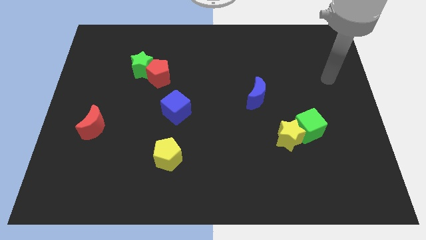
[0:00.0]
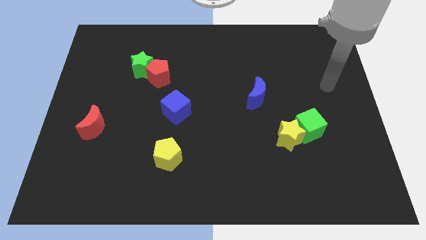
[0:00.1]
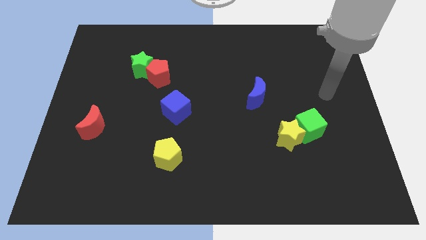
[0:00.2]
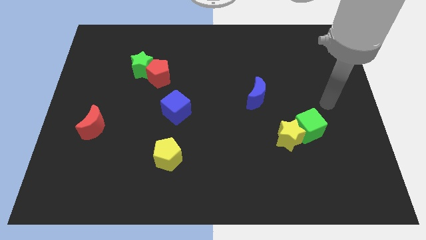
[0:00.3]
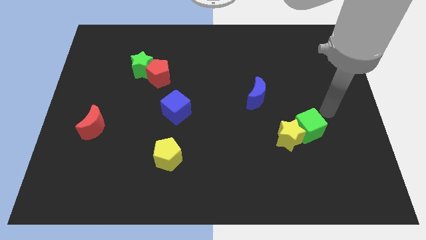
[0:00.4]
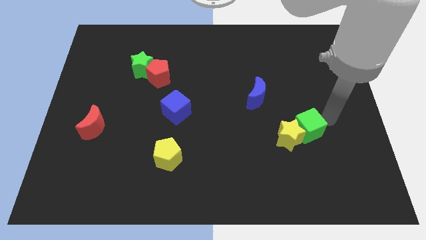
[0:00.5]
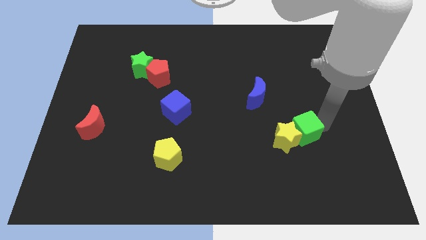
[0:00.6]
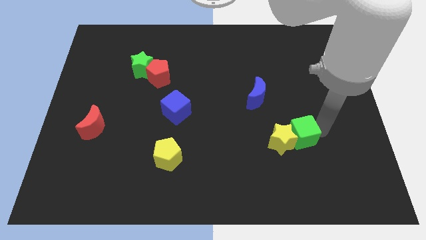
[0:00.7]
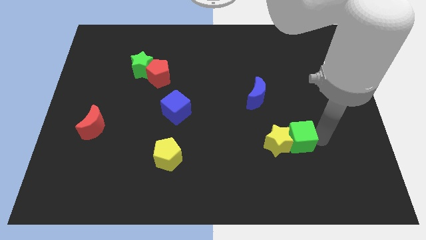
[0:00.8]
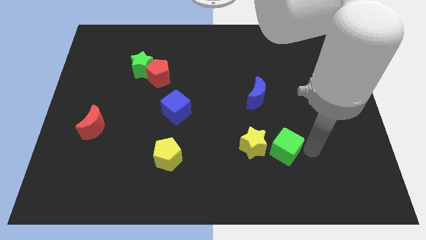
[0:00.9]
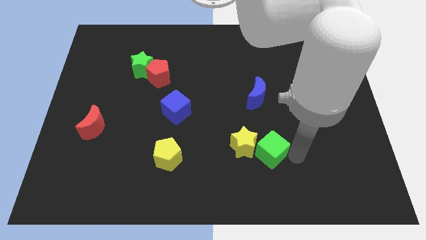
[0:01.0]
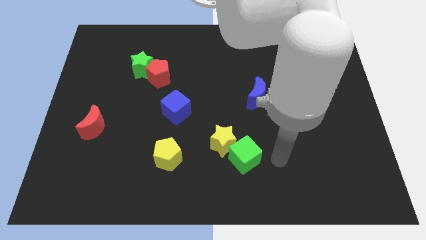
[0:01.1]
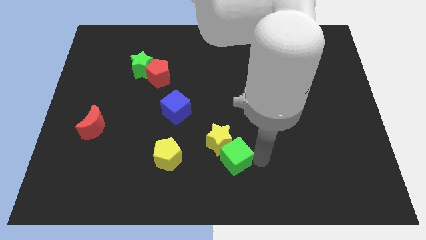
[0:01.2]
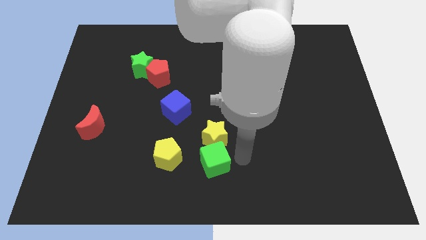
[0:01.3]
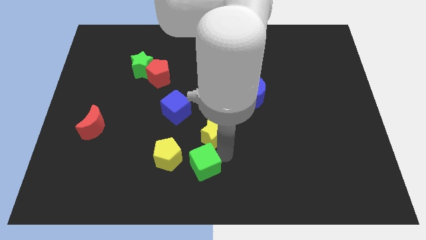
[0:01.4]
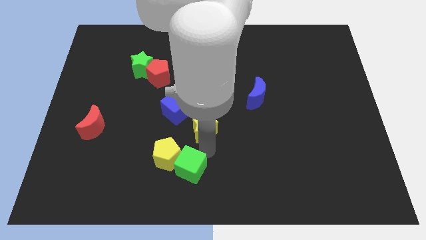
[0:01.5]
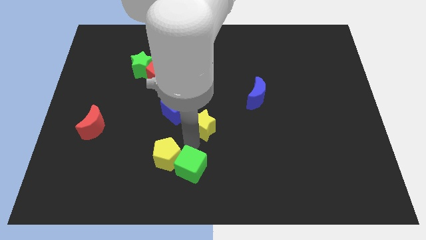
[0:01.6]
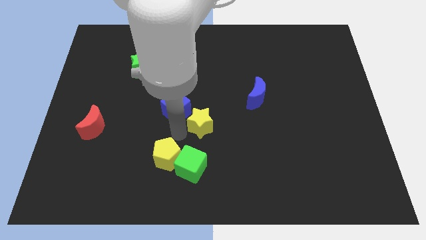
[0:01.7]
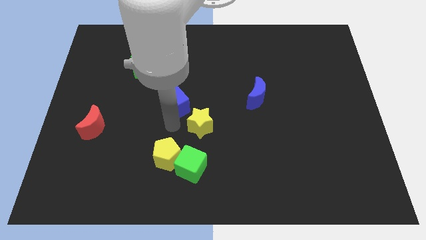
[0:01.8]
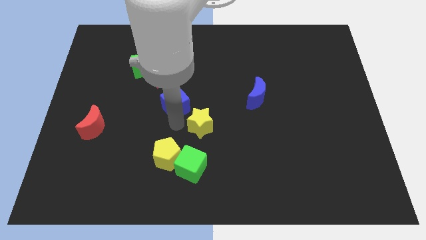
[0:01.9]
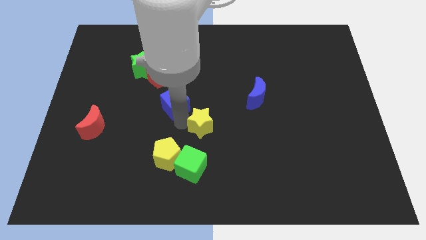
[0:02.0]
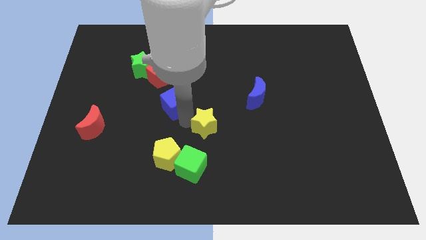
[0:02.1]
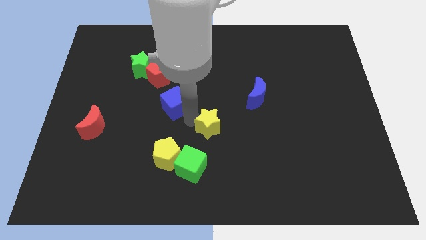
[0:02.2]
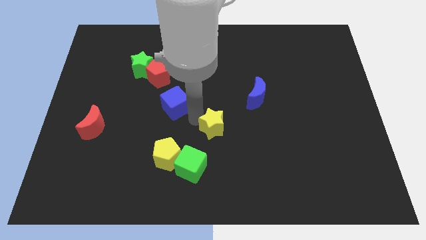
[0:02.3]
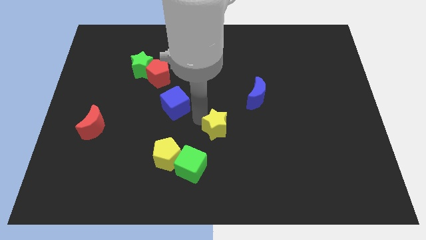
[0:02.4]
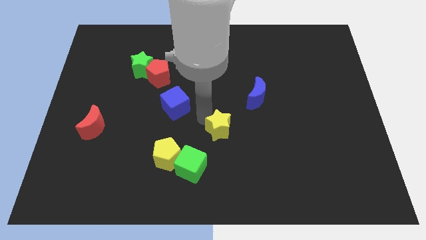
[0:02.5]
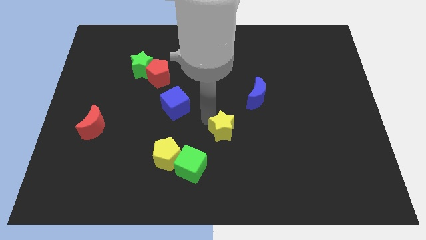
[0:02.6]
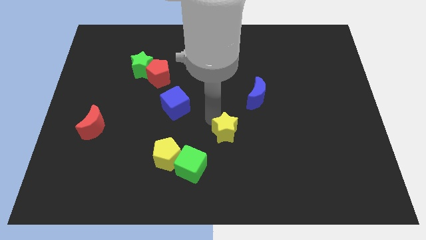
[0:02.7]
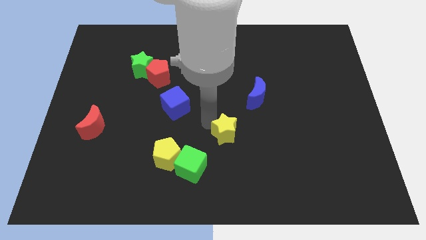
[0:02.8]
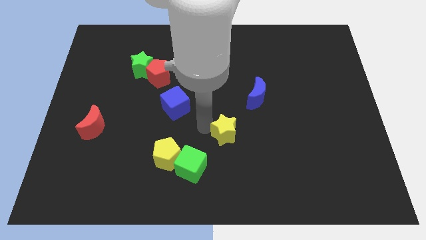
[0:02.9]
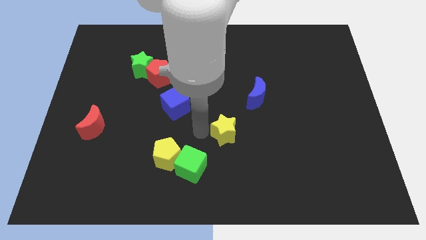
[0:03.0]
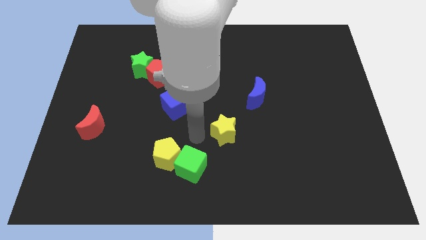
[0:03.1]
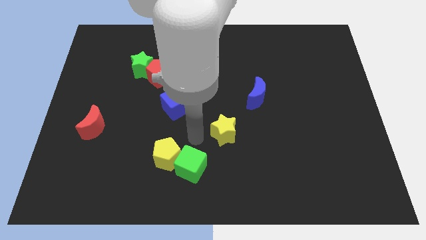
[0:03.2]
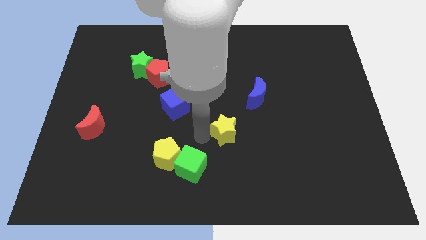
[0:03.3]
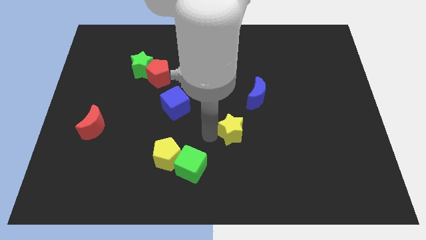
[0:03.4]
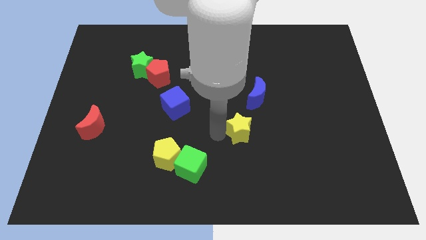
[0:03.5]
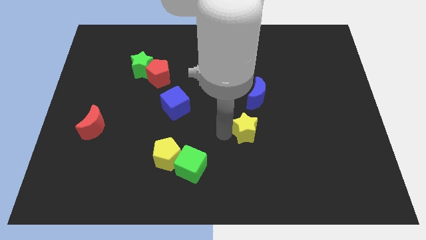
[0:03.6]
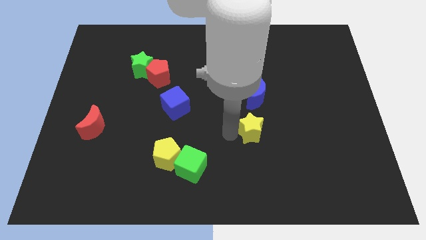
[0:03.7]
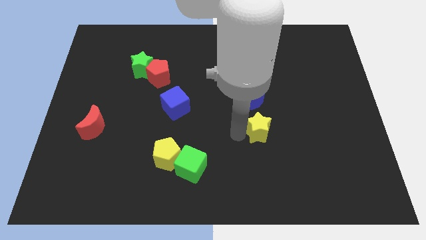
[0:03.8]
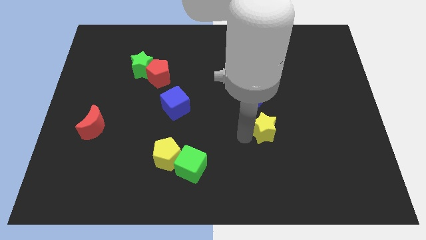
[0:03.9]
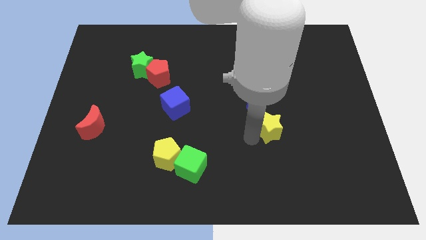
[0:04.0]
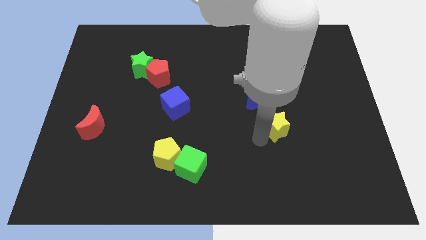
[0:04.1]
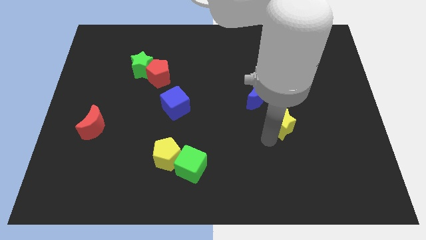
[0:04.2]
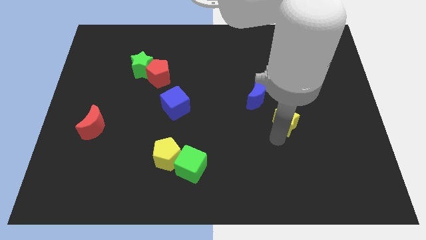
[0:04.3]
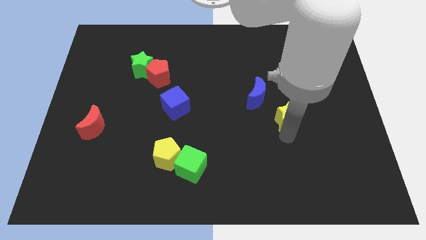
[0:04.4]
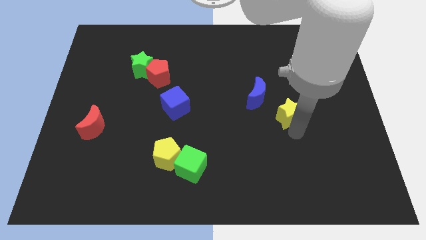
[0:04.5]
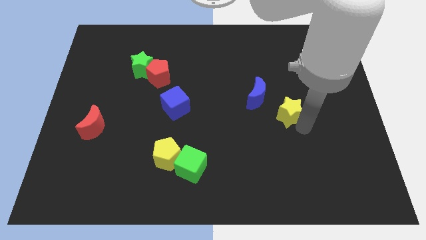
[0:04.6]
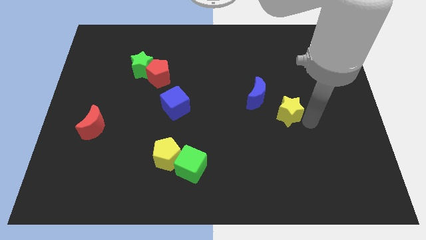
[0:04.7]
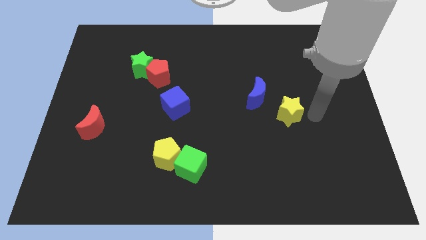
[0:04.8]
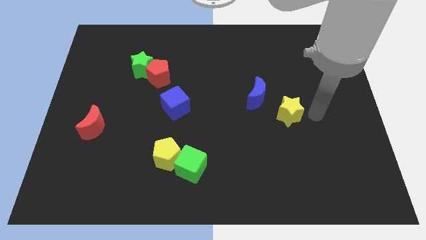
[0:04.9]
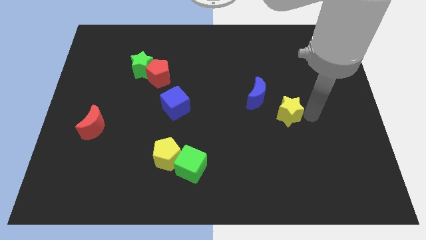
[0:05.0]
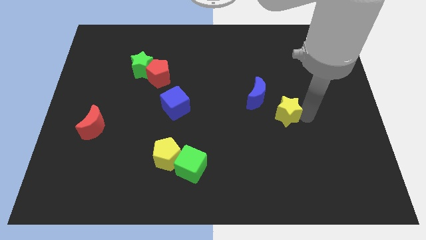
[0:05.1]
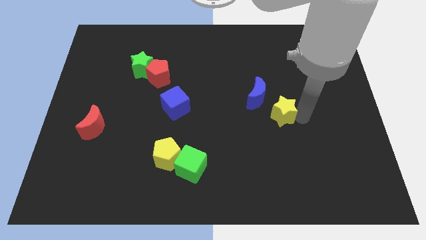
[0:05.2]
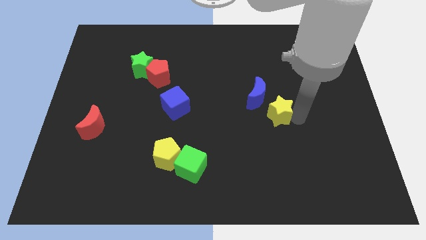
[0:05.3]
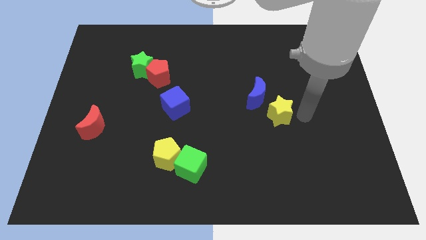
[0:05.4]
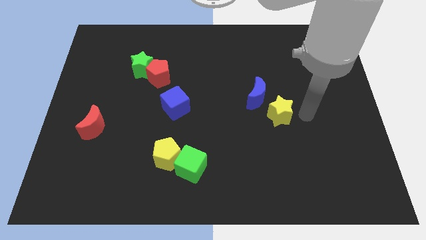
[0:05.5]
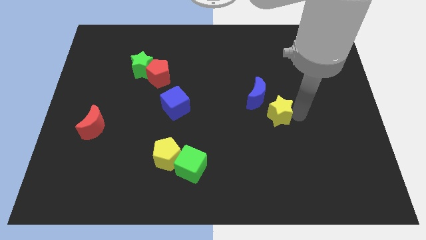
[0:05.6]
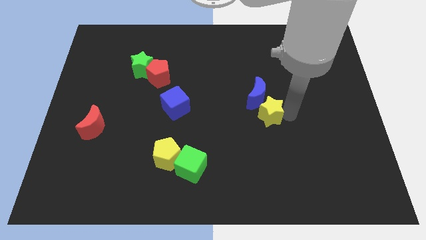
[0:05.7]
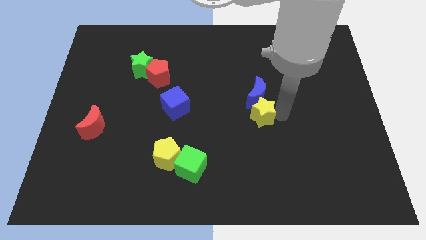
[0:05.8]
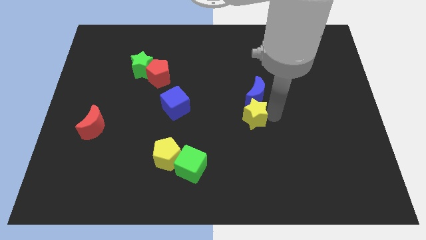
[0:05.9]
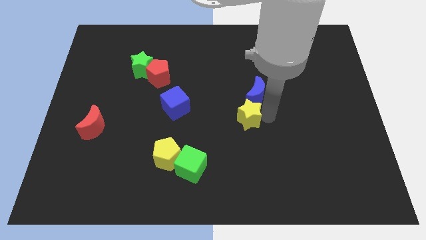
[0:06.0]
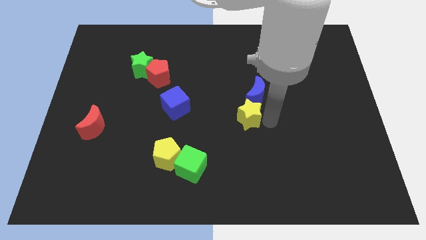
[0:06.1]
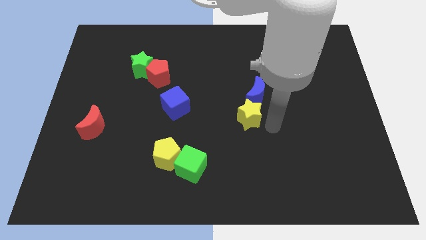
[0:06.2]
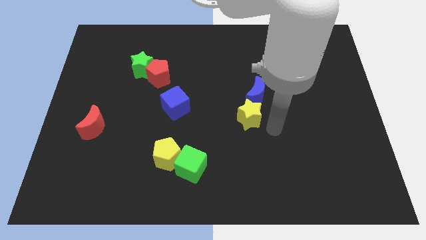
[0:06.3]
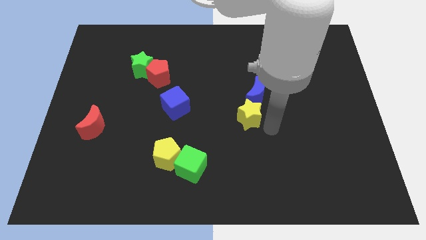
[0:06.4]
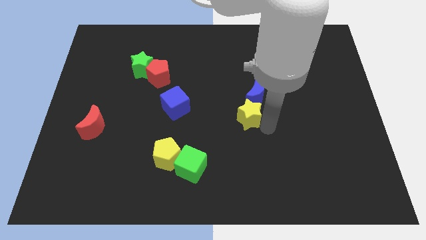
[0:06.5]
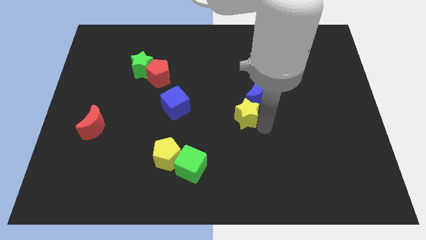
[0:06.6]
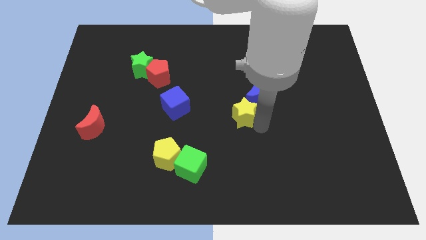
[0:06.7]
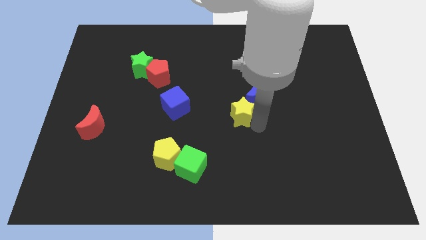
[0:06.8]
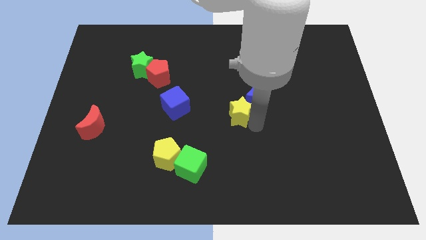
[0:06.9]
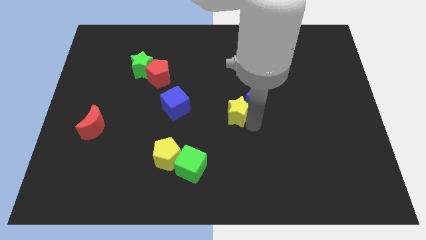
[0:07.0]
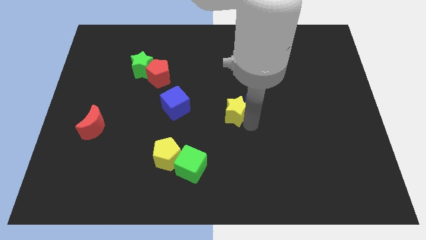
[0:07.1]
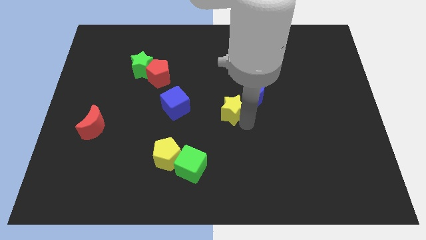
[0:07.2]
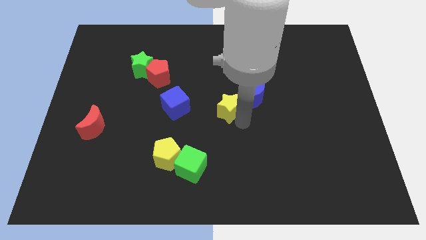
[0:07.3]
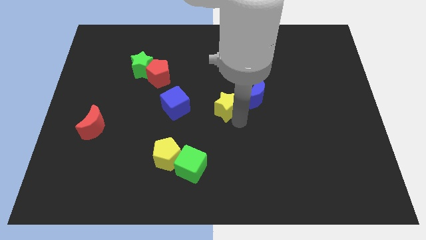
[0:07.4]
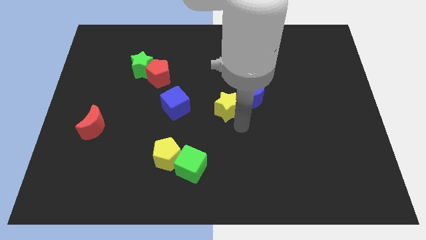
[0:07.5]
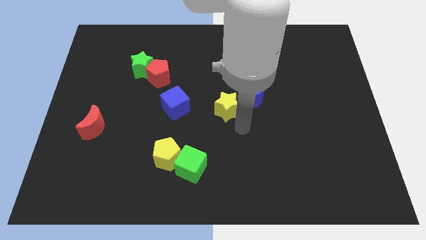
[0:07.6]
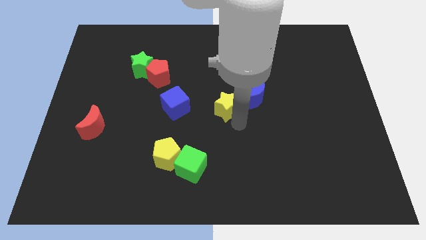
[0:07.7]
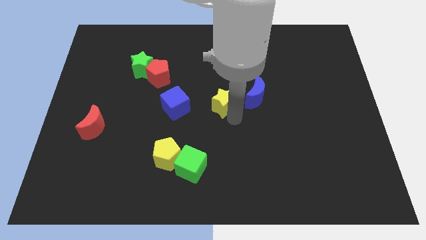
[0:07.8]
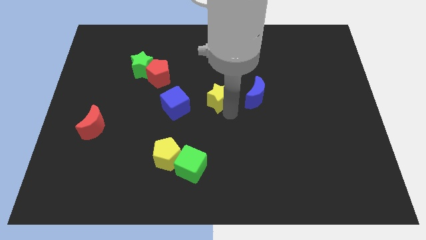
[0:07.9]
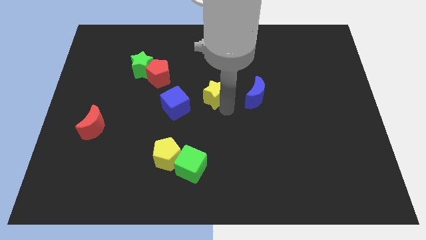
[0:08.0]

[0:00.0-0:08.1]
slide the yellow star up and to the left
